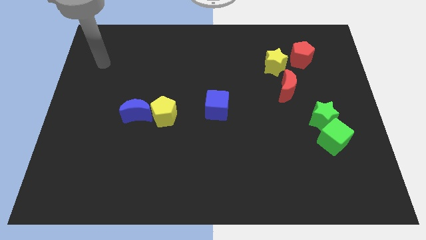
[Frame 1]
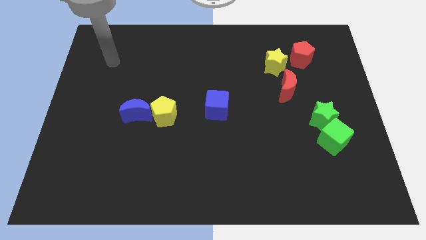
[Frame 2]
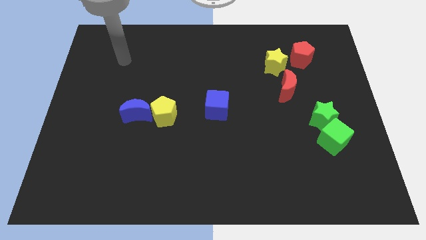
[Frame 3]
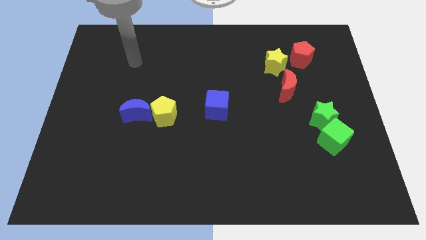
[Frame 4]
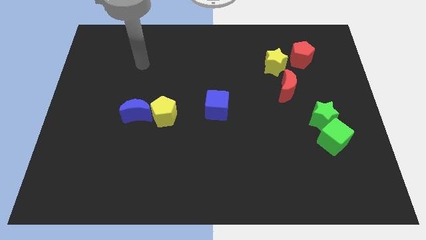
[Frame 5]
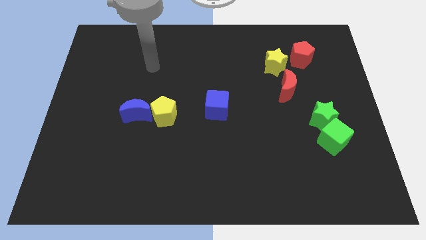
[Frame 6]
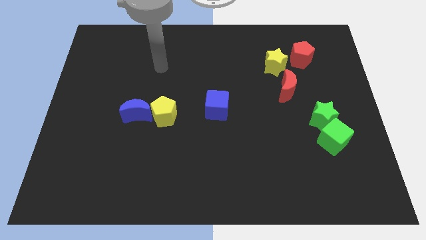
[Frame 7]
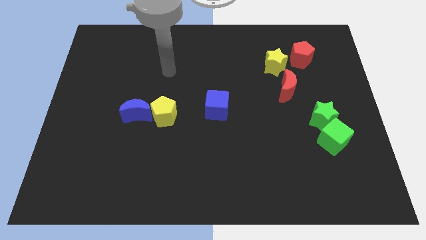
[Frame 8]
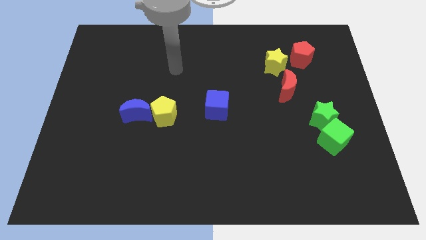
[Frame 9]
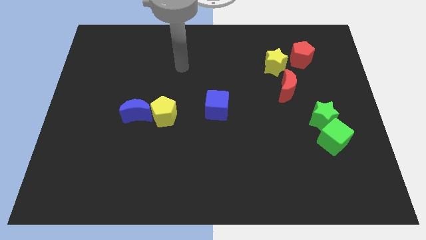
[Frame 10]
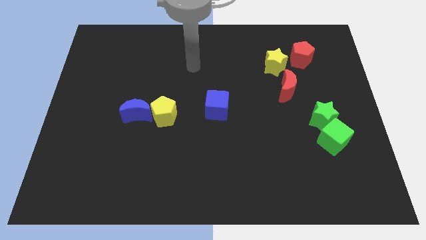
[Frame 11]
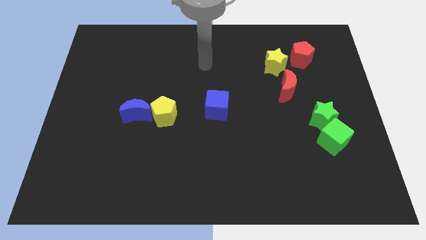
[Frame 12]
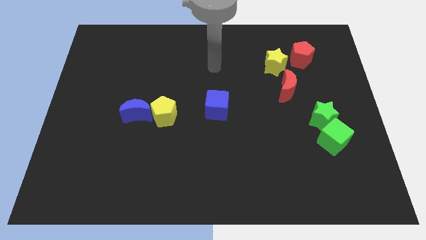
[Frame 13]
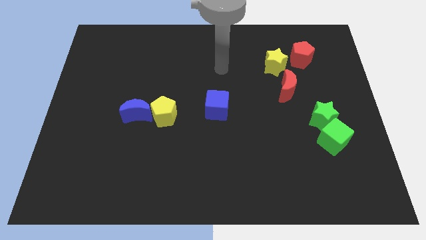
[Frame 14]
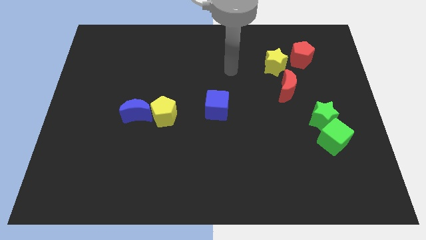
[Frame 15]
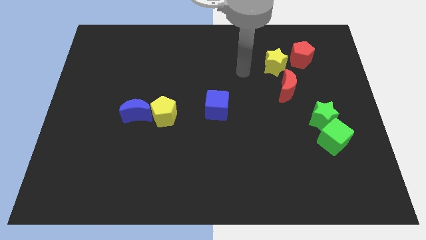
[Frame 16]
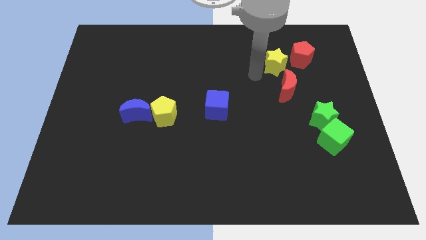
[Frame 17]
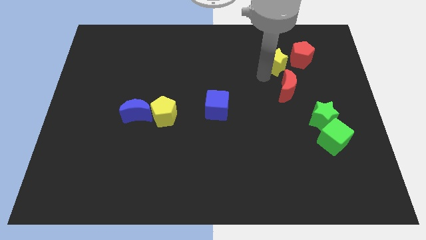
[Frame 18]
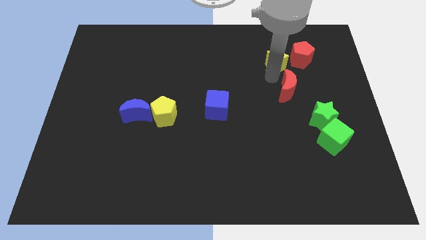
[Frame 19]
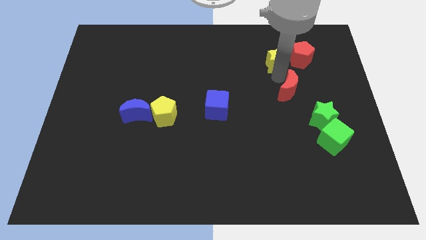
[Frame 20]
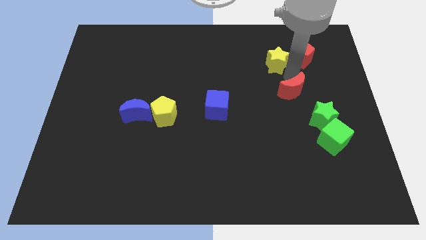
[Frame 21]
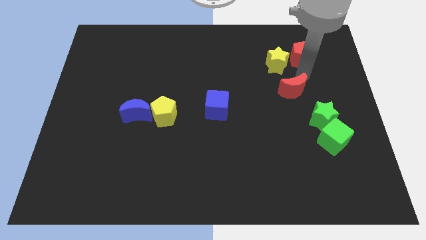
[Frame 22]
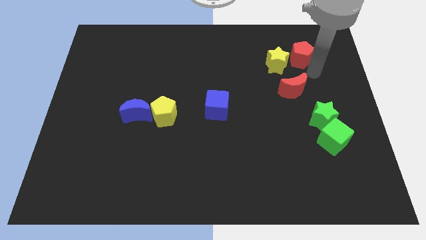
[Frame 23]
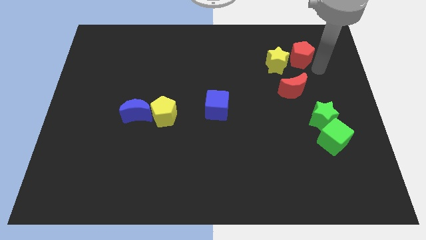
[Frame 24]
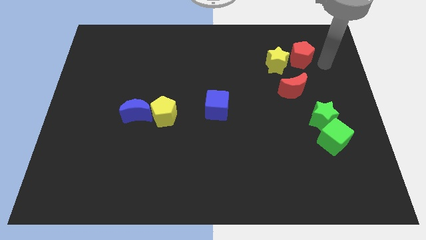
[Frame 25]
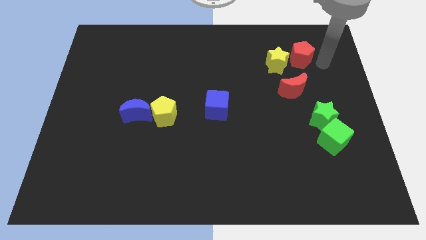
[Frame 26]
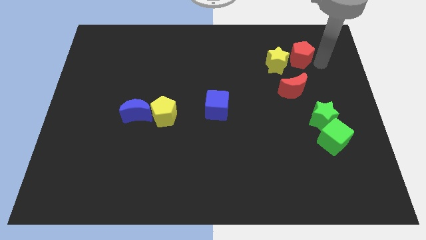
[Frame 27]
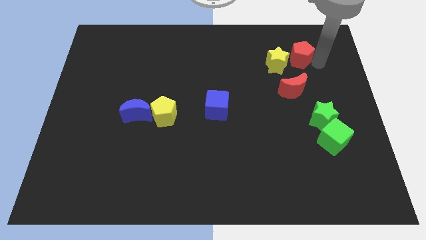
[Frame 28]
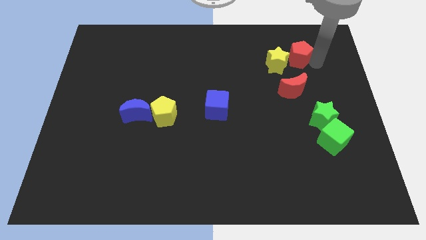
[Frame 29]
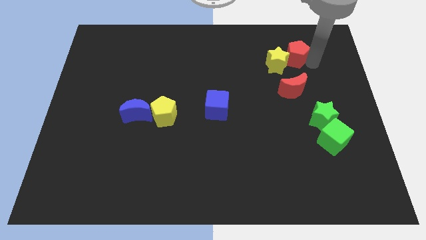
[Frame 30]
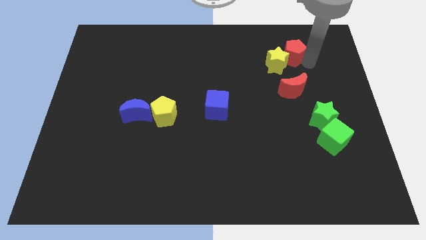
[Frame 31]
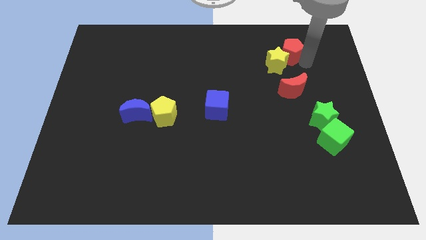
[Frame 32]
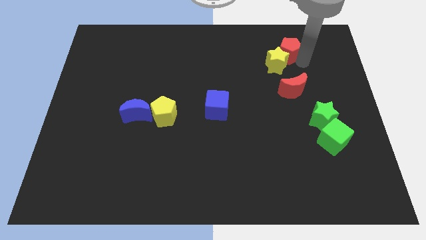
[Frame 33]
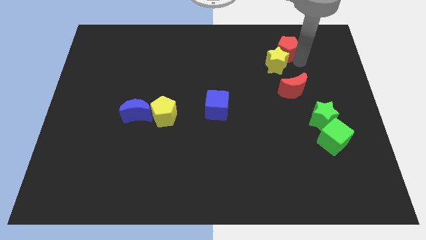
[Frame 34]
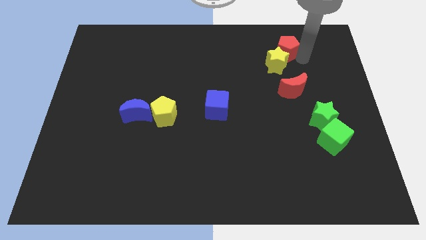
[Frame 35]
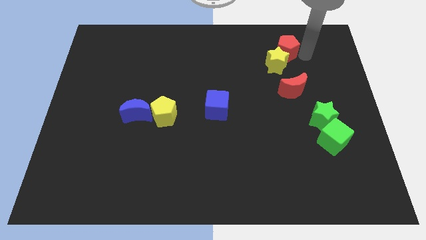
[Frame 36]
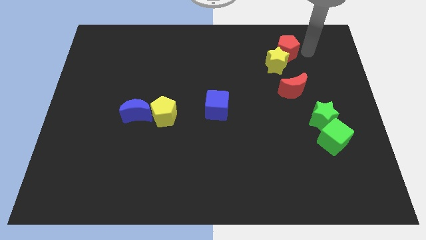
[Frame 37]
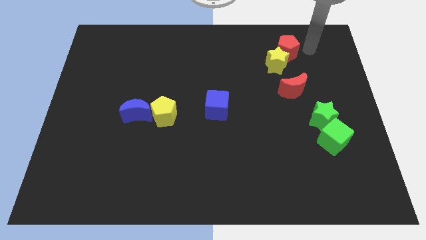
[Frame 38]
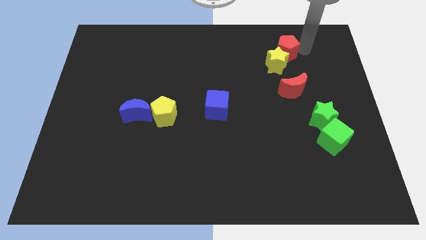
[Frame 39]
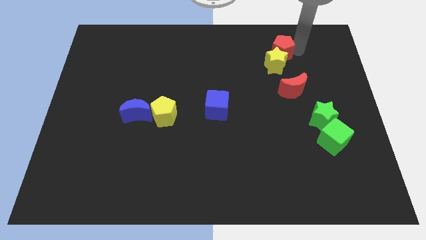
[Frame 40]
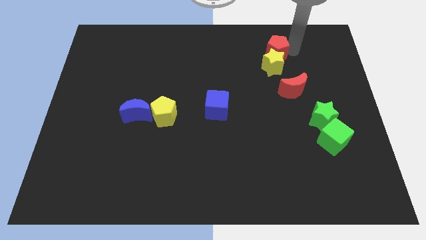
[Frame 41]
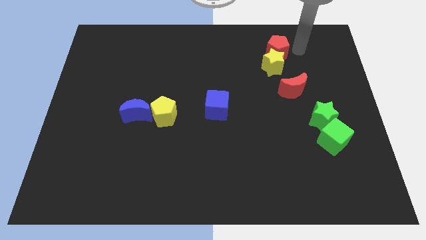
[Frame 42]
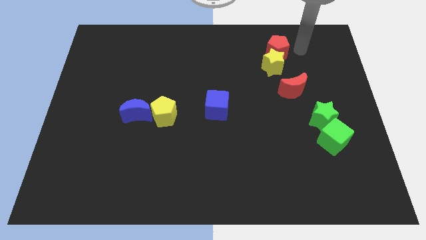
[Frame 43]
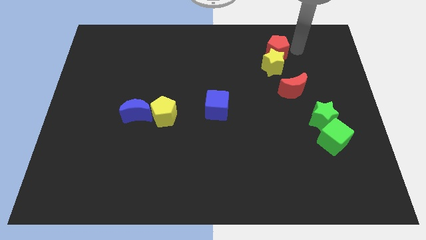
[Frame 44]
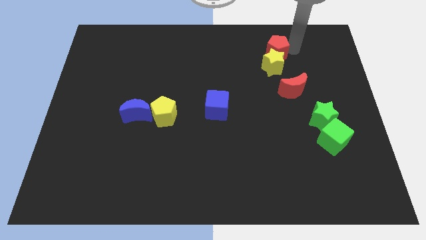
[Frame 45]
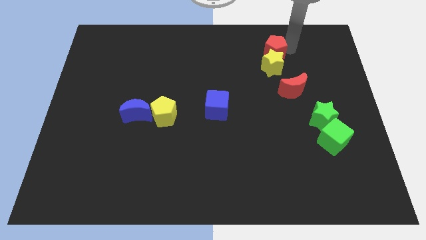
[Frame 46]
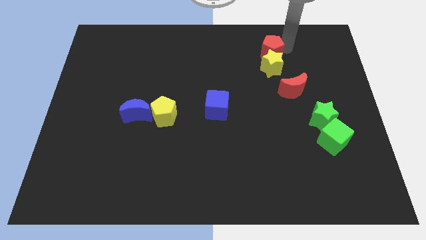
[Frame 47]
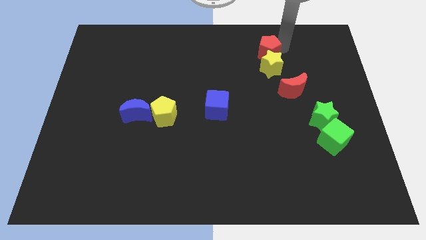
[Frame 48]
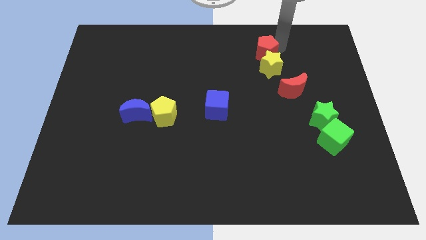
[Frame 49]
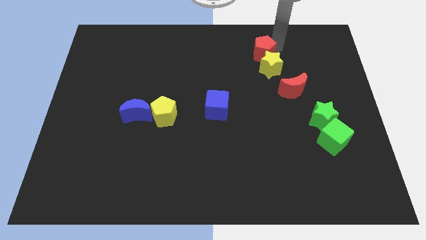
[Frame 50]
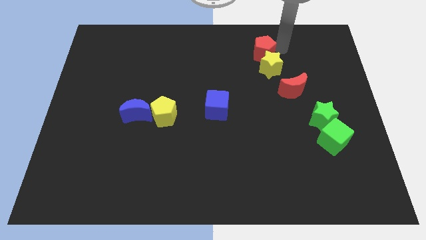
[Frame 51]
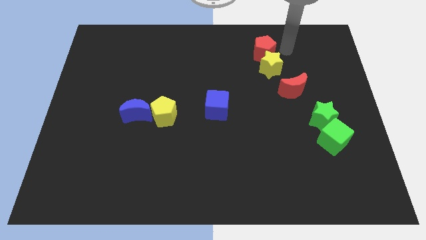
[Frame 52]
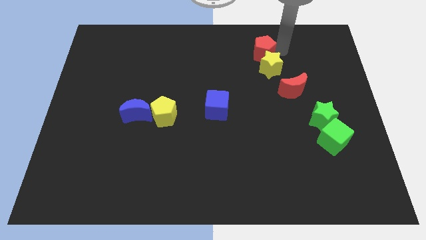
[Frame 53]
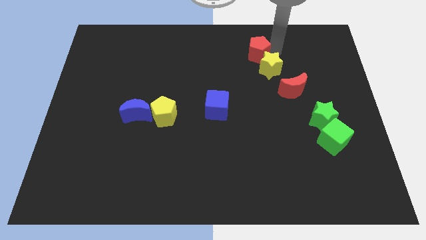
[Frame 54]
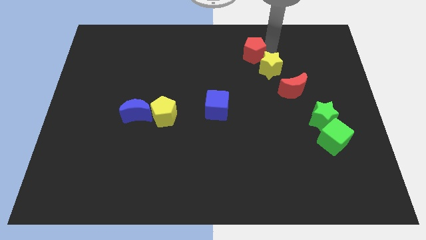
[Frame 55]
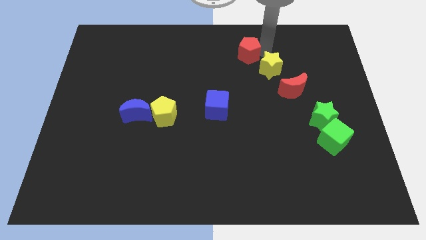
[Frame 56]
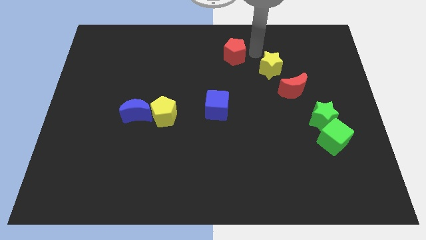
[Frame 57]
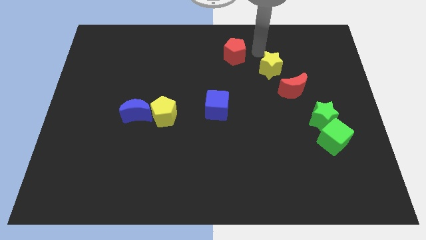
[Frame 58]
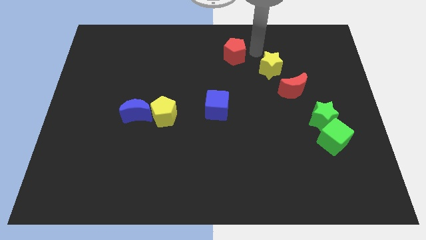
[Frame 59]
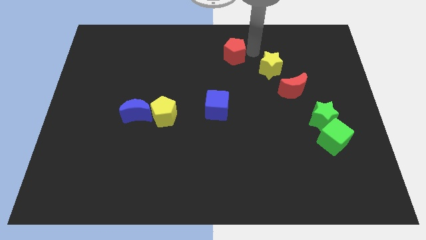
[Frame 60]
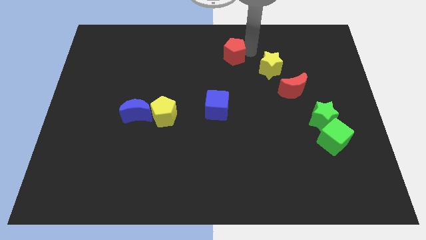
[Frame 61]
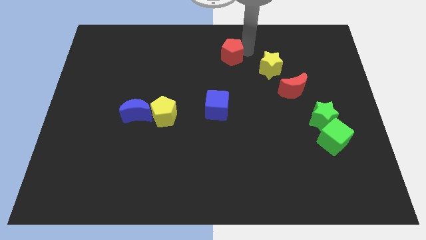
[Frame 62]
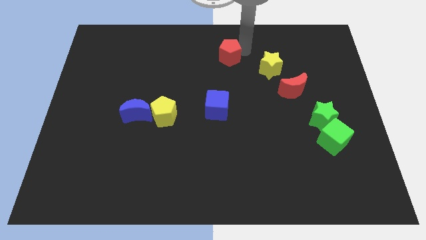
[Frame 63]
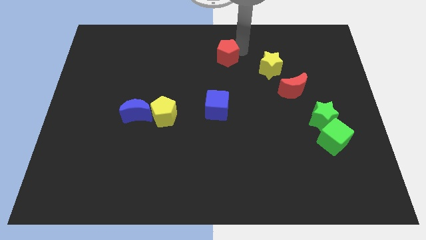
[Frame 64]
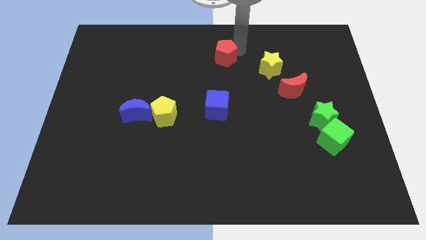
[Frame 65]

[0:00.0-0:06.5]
move the red pentagon left

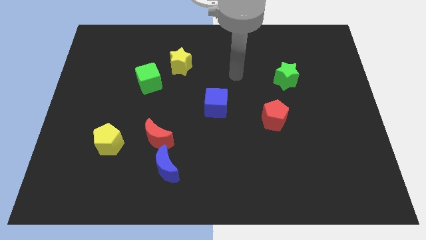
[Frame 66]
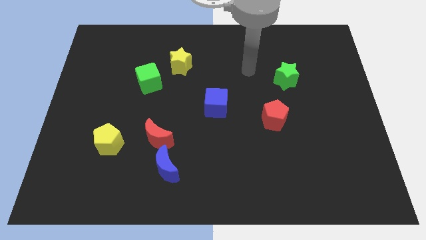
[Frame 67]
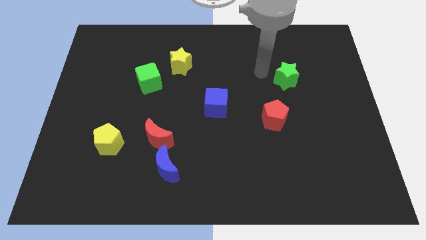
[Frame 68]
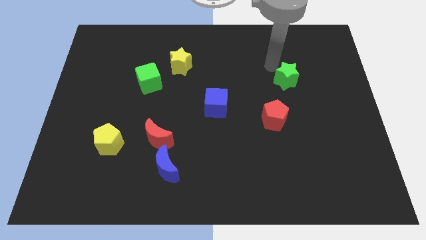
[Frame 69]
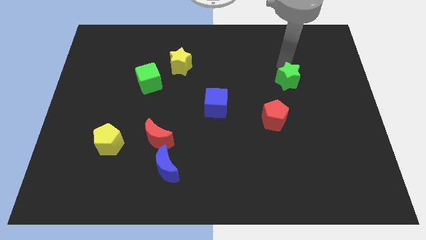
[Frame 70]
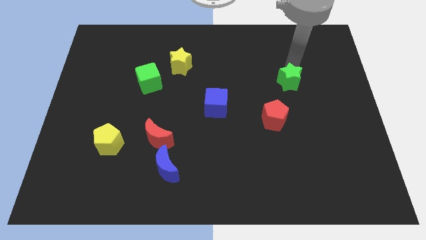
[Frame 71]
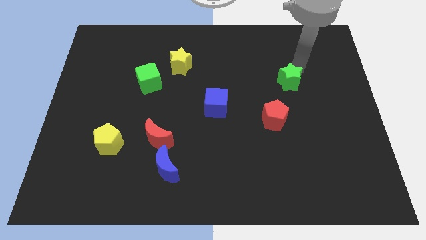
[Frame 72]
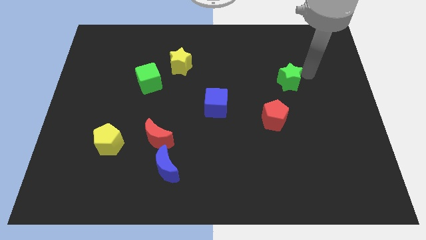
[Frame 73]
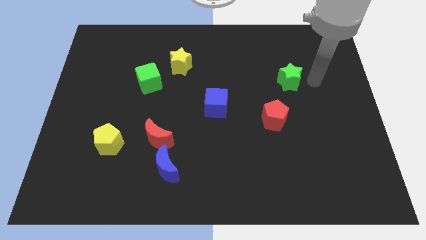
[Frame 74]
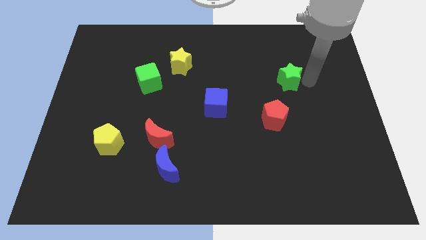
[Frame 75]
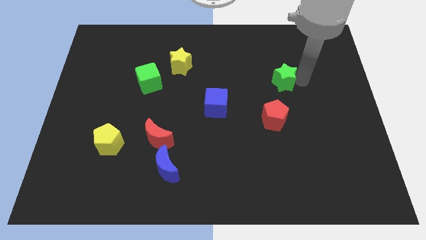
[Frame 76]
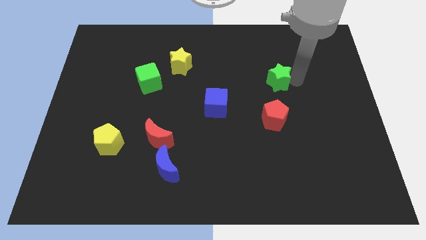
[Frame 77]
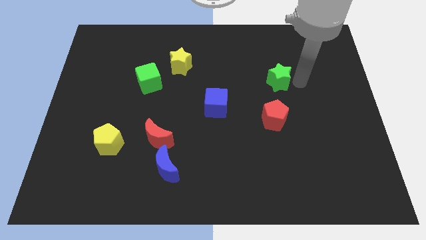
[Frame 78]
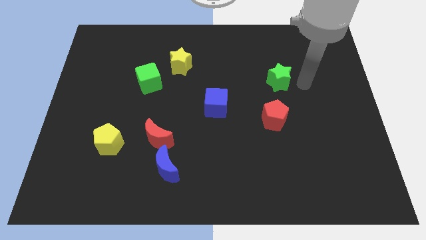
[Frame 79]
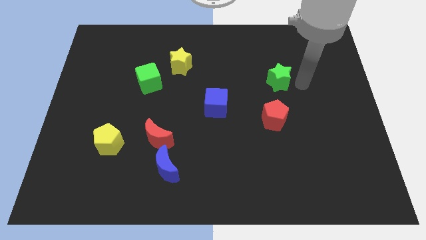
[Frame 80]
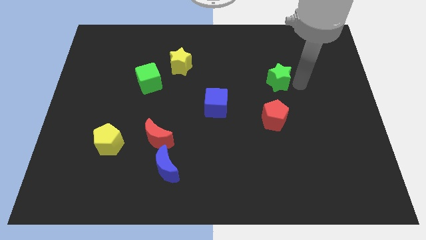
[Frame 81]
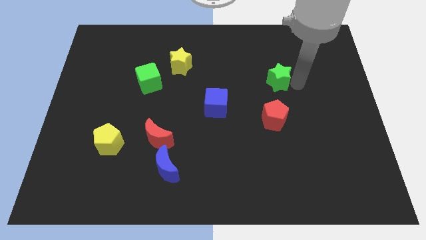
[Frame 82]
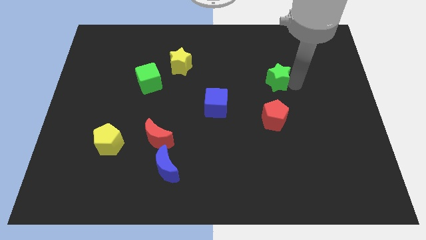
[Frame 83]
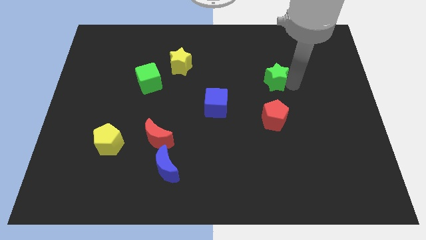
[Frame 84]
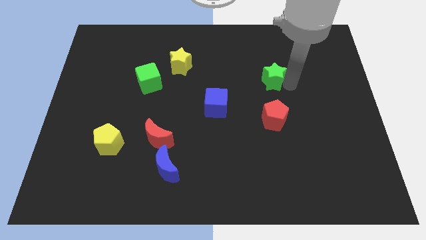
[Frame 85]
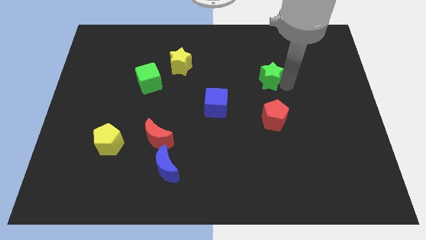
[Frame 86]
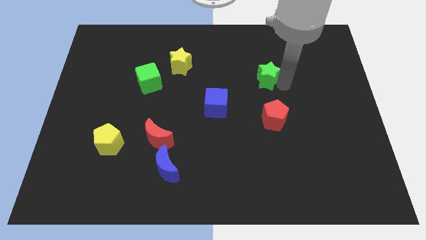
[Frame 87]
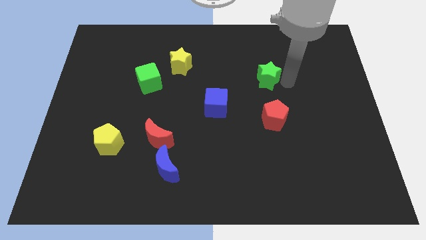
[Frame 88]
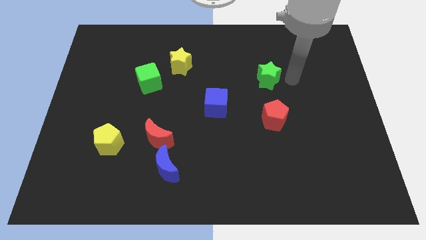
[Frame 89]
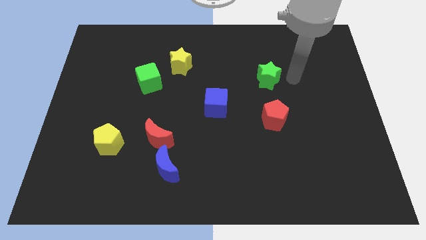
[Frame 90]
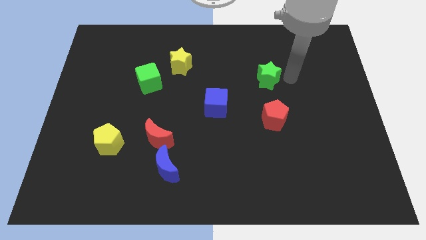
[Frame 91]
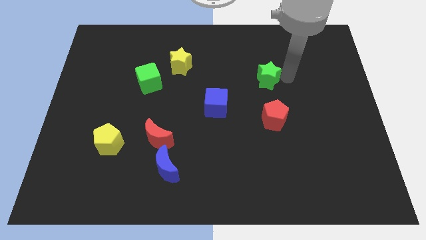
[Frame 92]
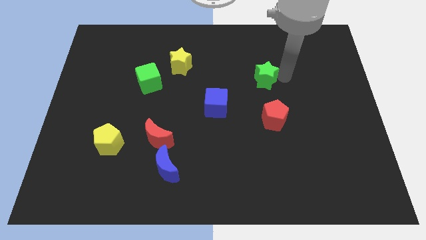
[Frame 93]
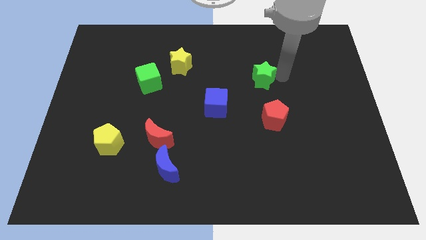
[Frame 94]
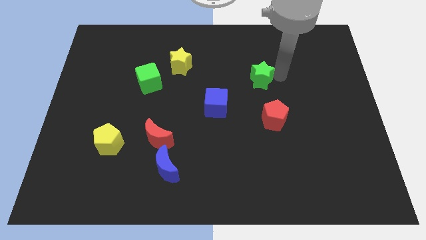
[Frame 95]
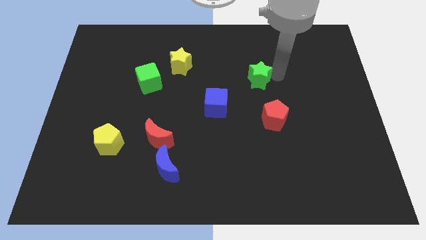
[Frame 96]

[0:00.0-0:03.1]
slide the green star a little bit left
